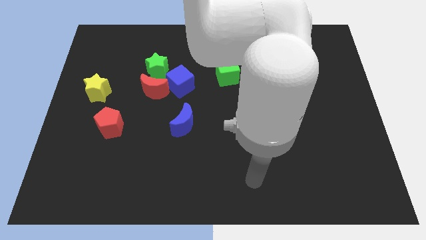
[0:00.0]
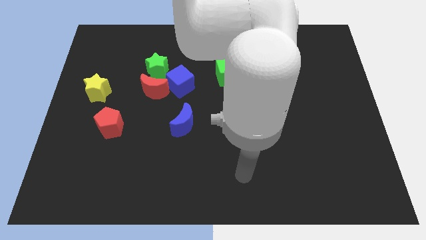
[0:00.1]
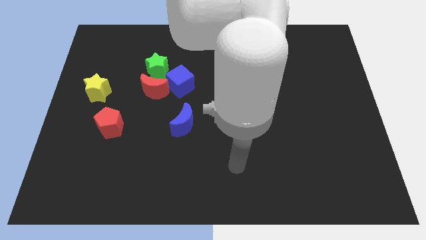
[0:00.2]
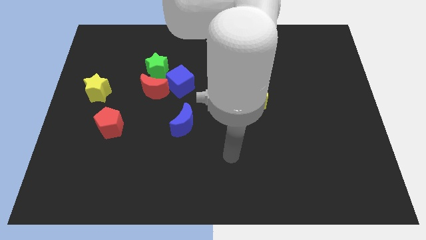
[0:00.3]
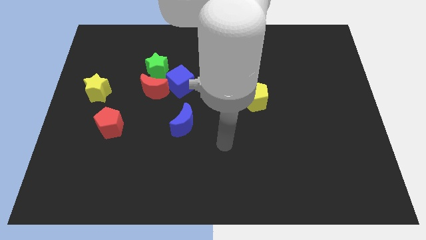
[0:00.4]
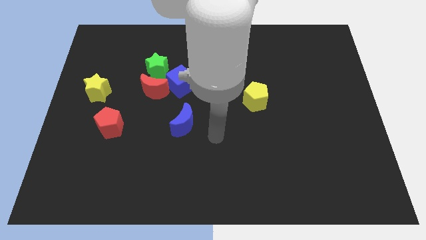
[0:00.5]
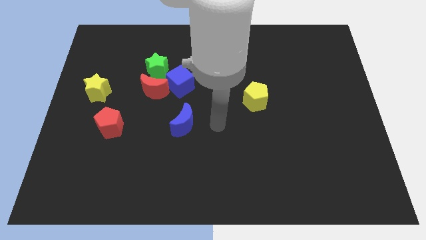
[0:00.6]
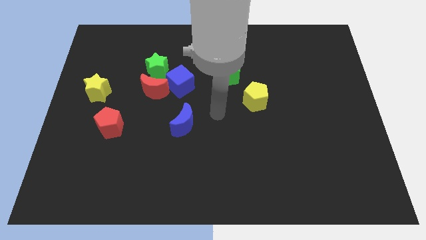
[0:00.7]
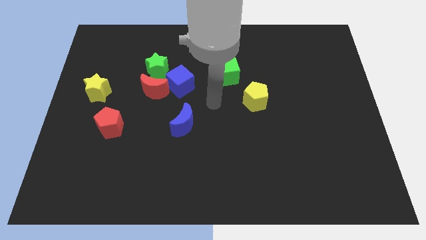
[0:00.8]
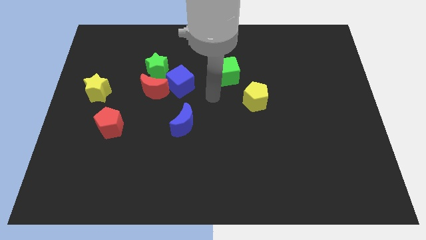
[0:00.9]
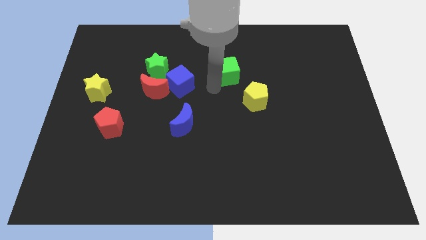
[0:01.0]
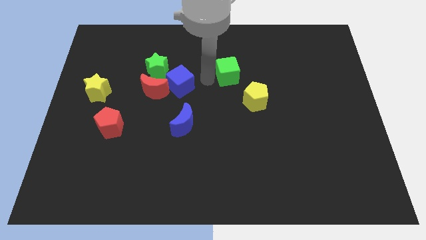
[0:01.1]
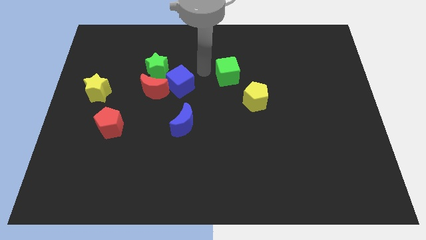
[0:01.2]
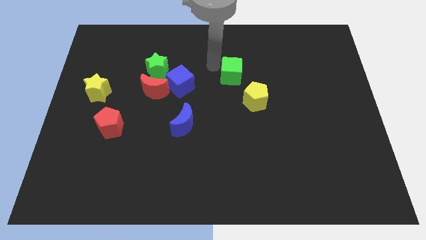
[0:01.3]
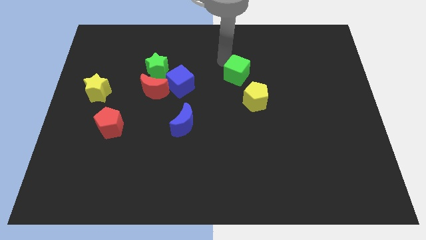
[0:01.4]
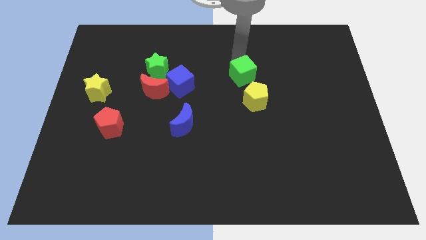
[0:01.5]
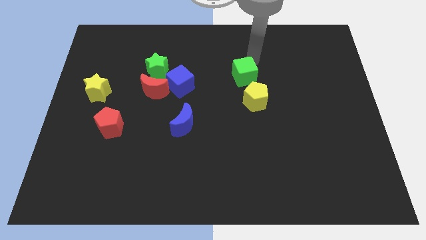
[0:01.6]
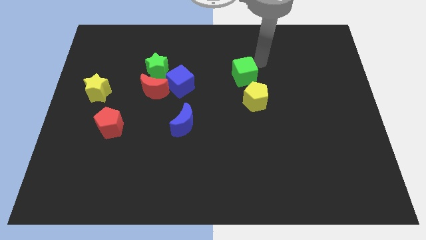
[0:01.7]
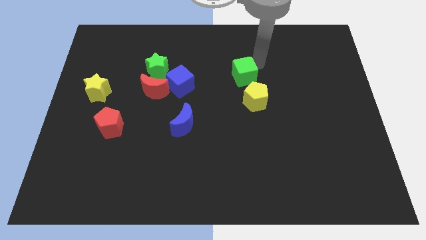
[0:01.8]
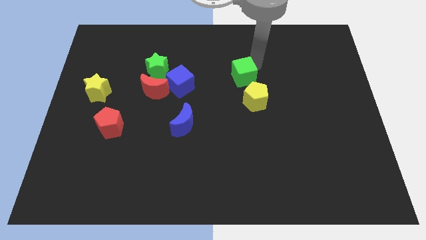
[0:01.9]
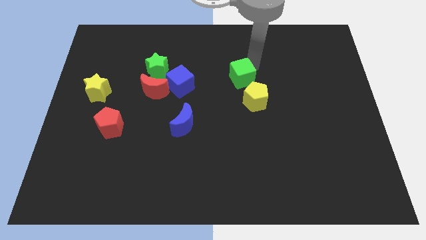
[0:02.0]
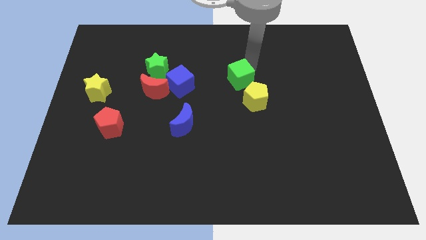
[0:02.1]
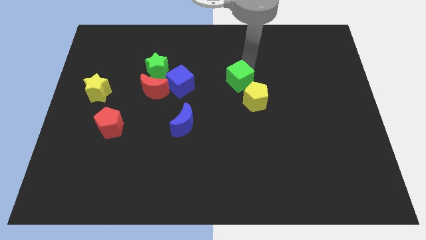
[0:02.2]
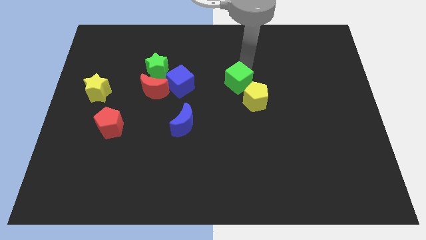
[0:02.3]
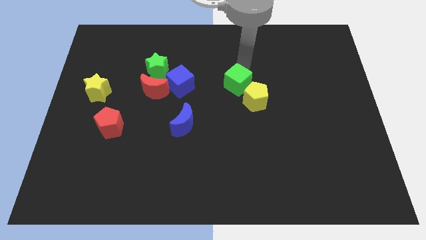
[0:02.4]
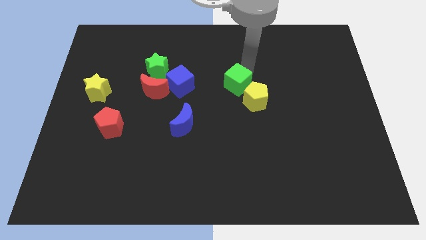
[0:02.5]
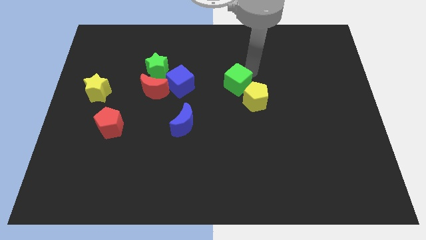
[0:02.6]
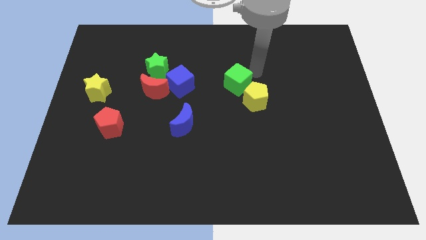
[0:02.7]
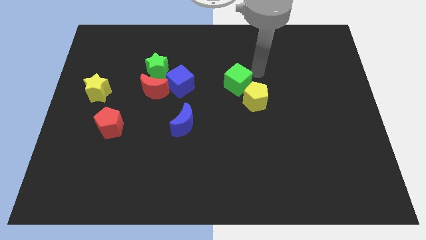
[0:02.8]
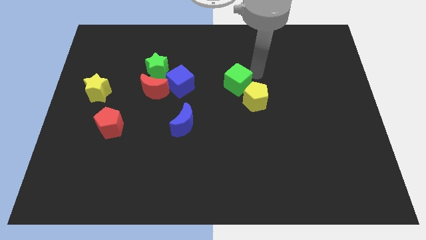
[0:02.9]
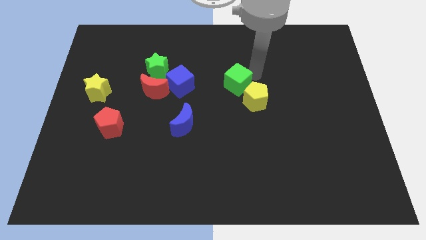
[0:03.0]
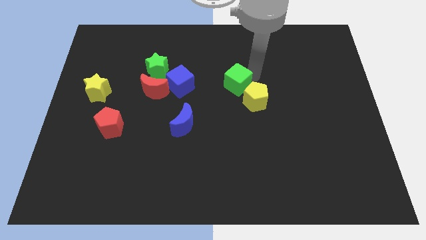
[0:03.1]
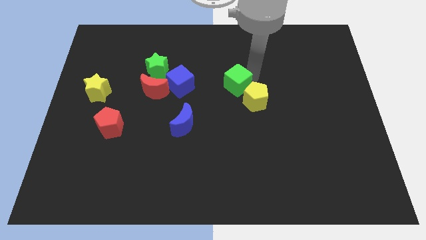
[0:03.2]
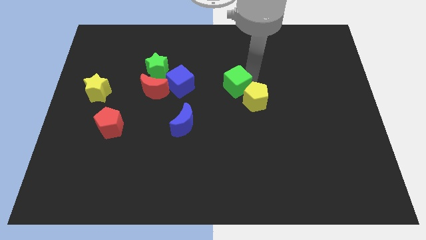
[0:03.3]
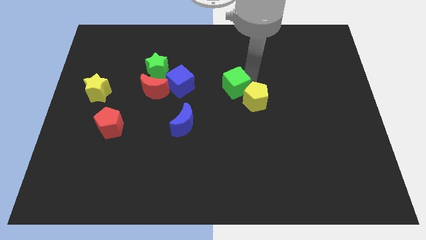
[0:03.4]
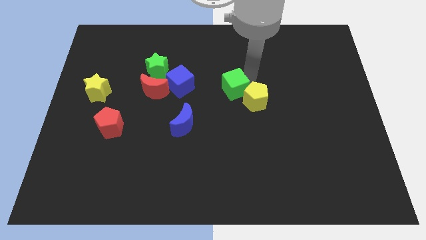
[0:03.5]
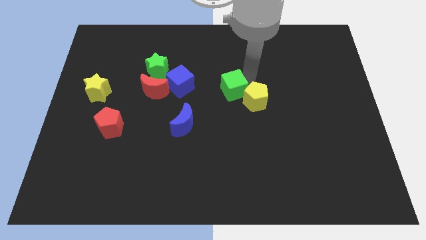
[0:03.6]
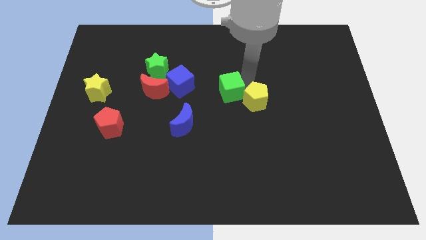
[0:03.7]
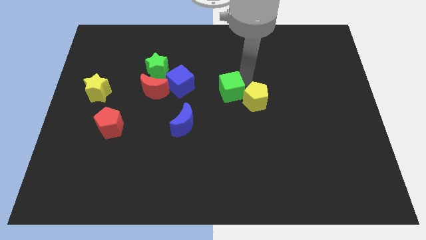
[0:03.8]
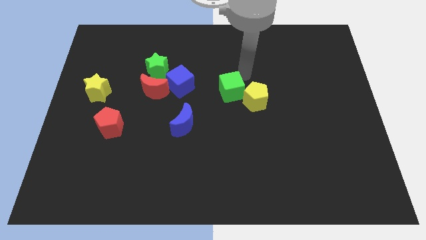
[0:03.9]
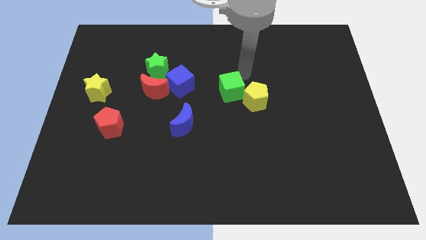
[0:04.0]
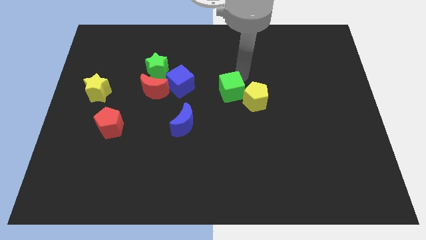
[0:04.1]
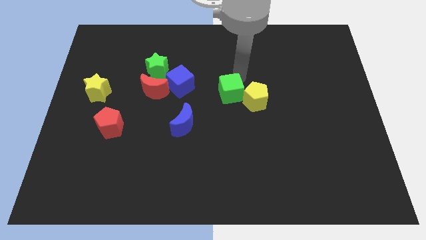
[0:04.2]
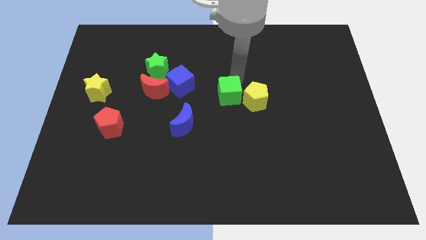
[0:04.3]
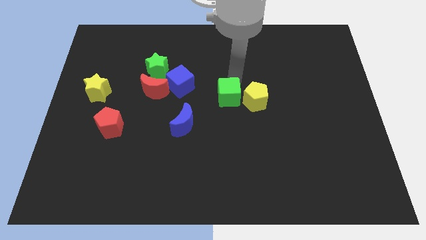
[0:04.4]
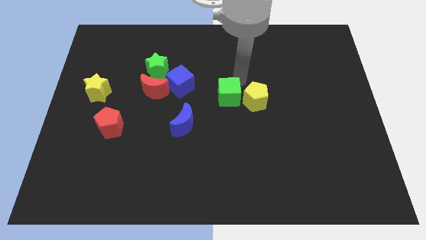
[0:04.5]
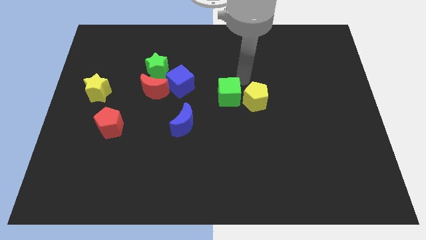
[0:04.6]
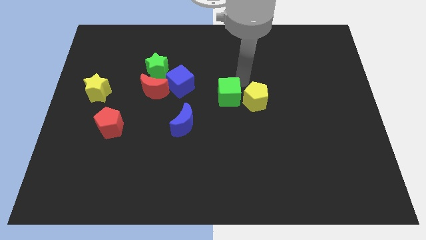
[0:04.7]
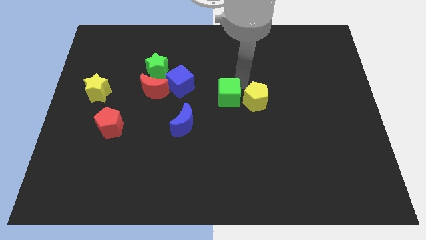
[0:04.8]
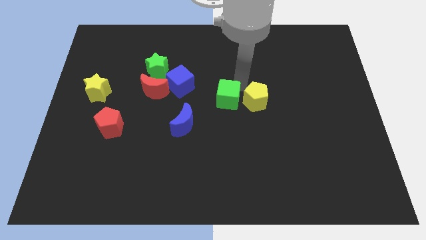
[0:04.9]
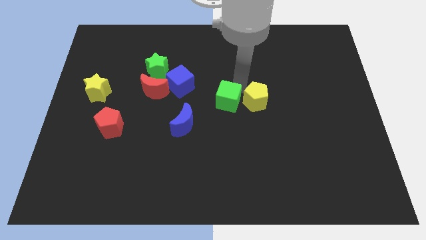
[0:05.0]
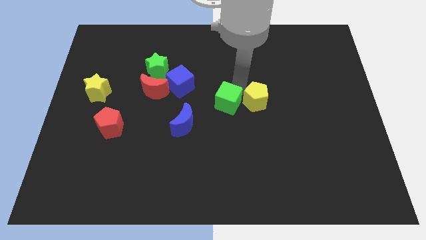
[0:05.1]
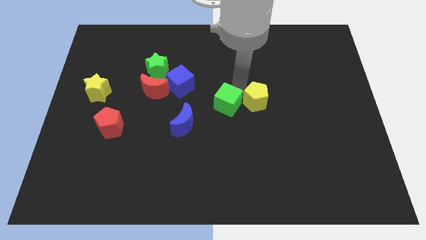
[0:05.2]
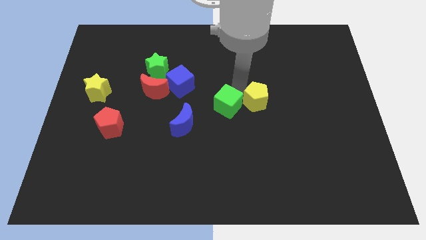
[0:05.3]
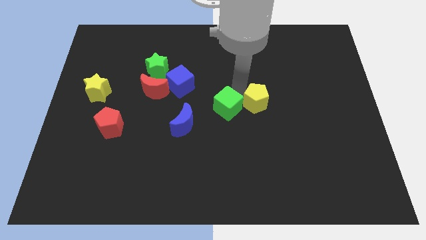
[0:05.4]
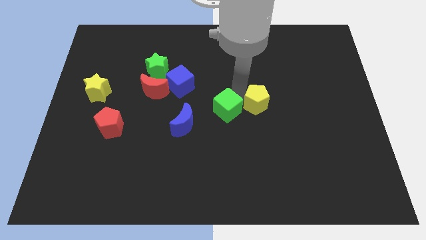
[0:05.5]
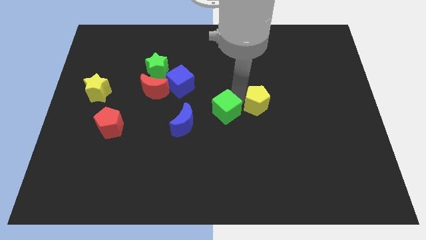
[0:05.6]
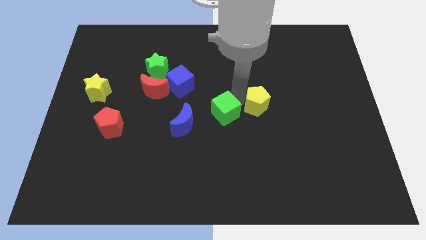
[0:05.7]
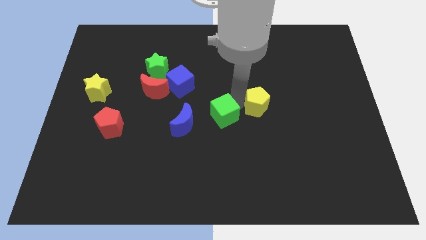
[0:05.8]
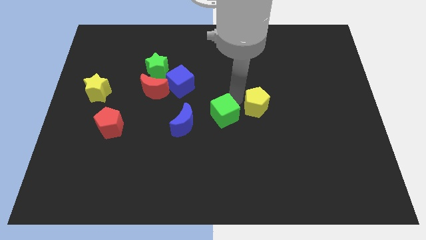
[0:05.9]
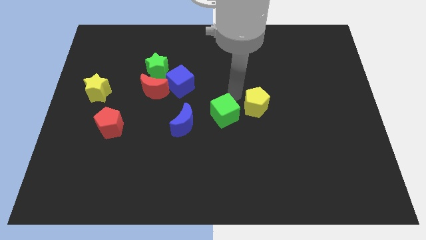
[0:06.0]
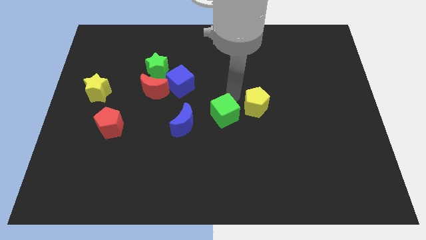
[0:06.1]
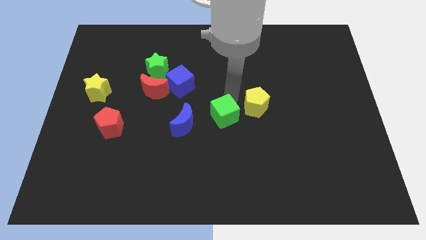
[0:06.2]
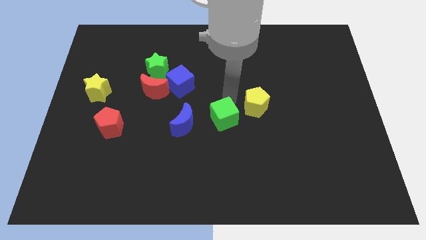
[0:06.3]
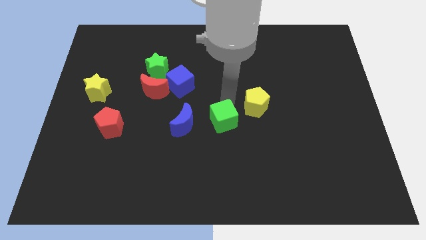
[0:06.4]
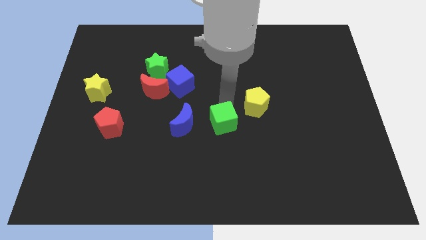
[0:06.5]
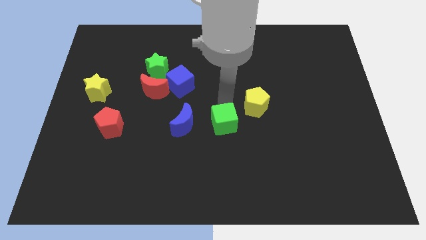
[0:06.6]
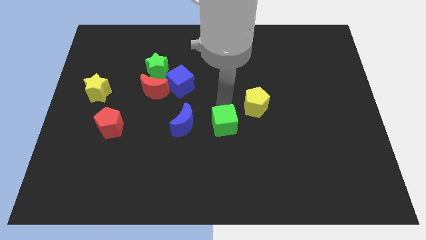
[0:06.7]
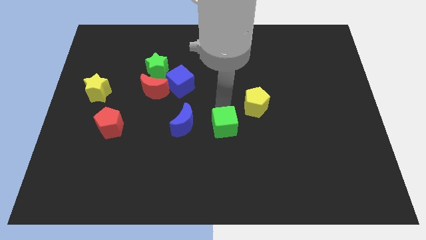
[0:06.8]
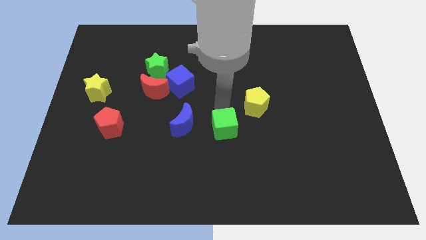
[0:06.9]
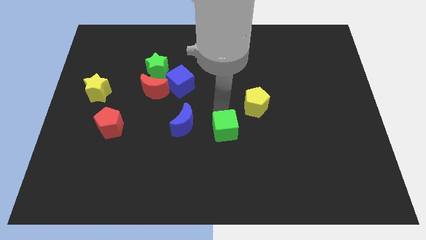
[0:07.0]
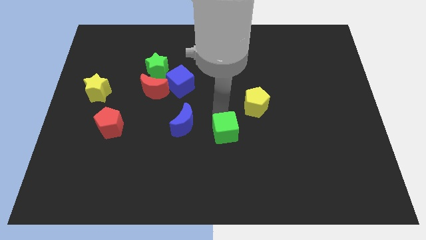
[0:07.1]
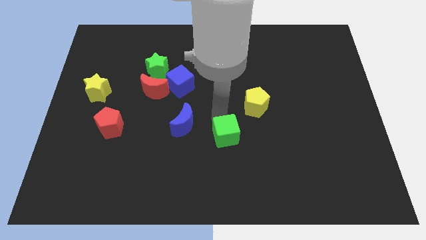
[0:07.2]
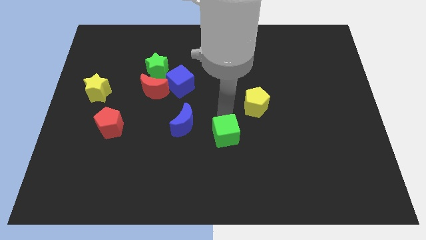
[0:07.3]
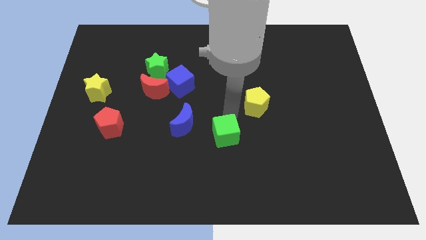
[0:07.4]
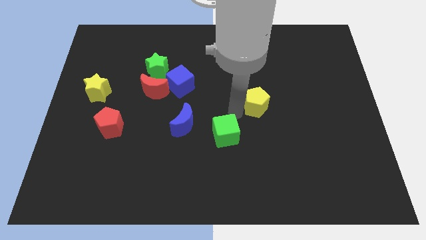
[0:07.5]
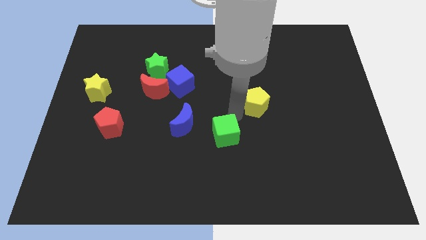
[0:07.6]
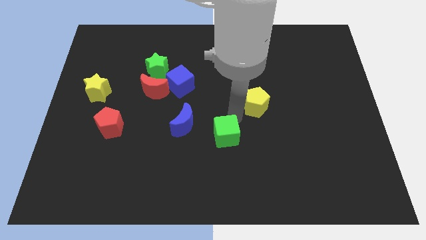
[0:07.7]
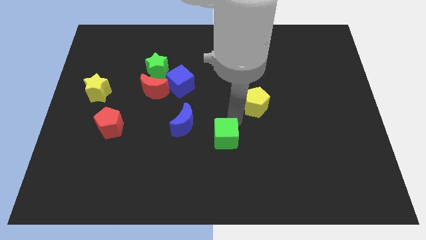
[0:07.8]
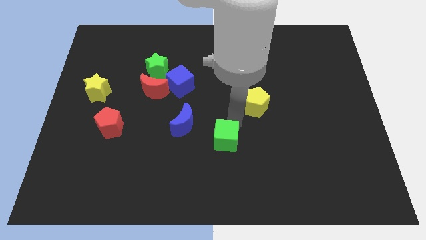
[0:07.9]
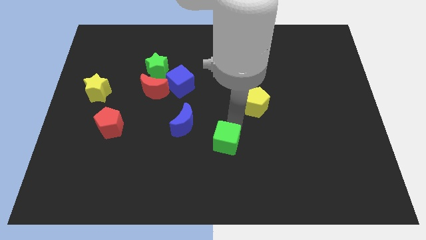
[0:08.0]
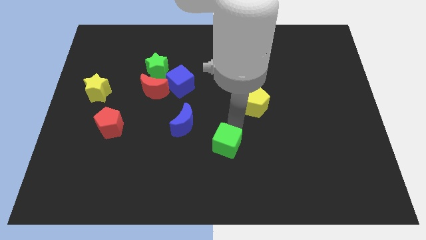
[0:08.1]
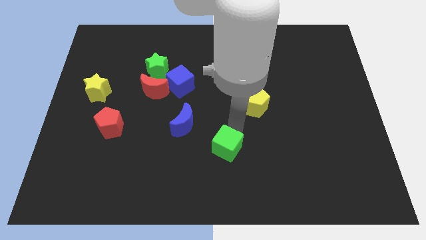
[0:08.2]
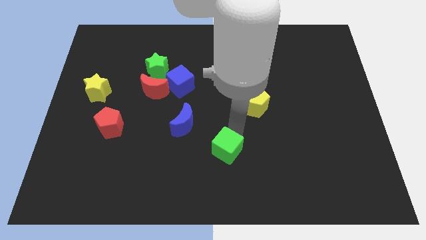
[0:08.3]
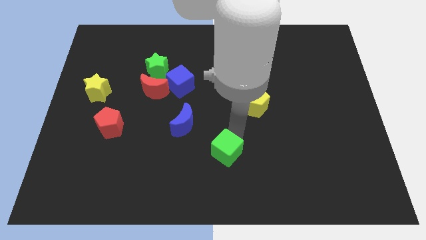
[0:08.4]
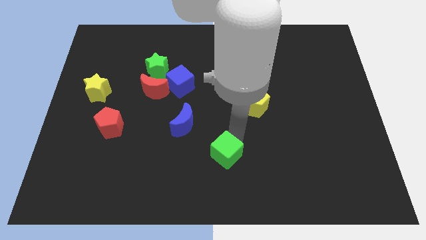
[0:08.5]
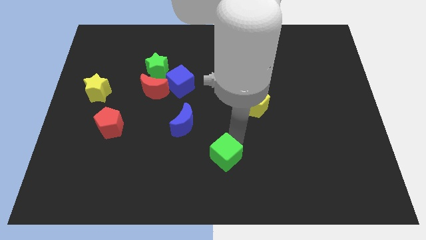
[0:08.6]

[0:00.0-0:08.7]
put the green cube to the bottom
